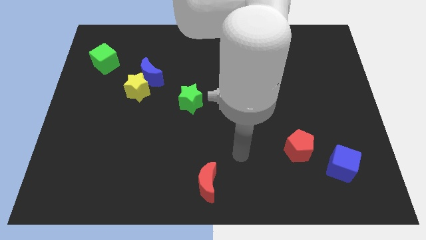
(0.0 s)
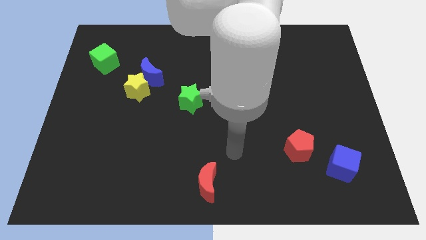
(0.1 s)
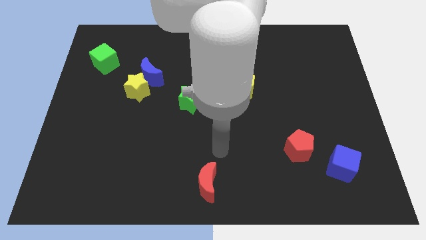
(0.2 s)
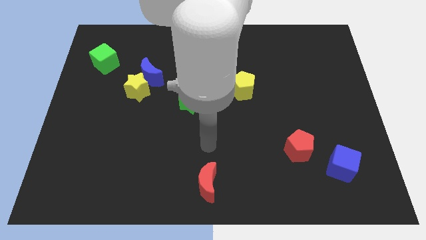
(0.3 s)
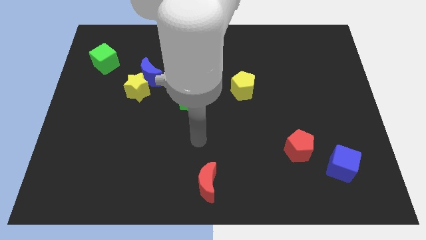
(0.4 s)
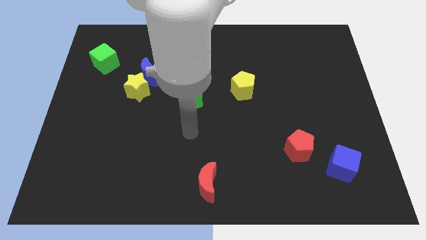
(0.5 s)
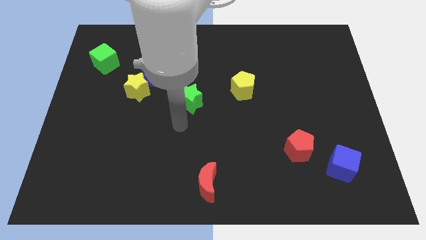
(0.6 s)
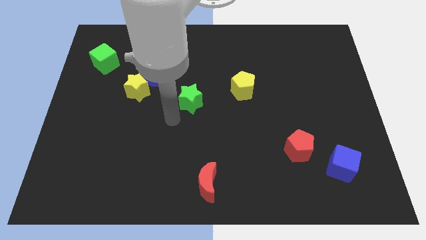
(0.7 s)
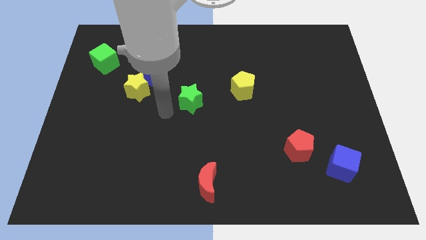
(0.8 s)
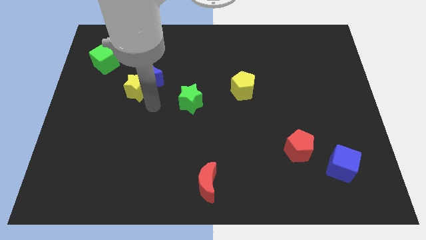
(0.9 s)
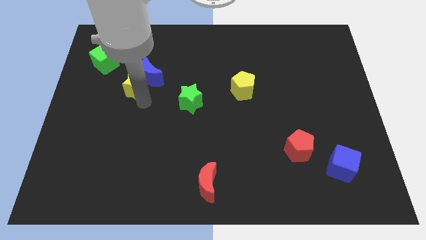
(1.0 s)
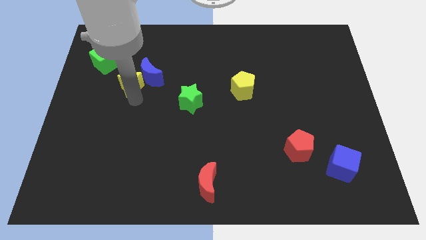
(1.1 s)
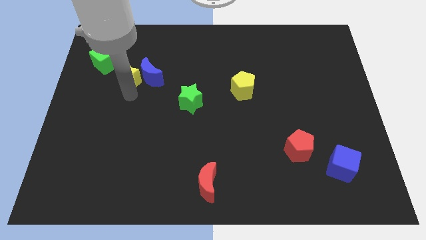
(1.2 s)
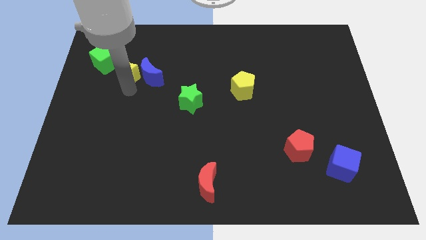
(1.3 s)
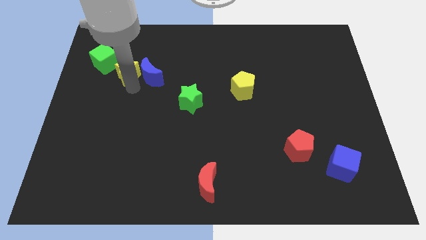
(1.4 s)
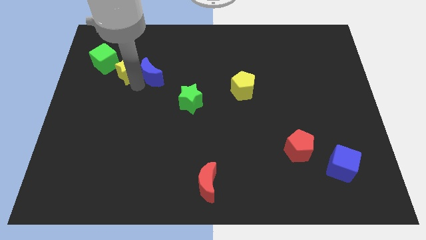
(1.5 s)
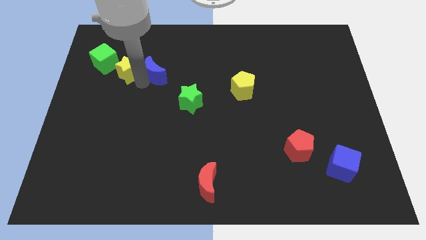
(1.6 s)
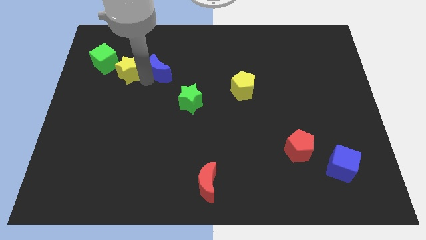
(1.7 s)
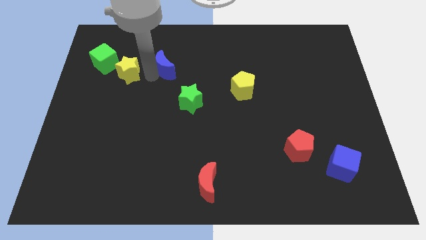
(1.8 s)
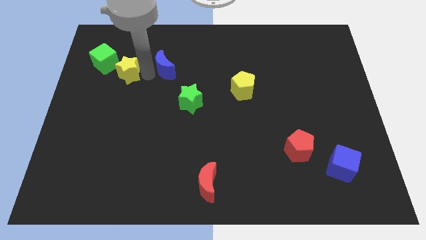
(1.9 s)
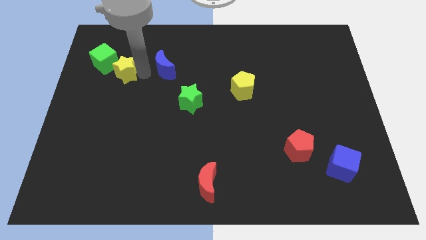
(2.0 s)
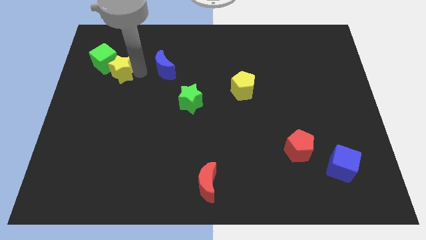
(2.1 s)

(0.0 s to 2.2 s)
separate the blue moon from the yellow star

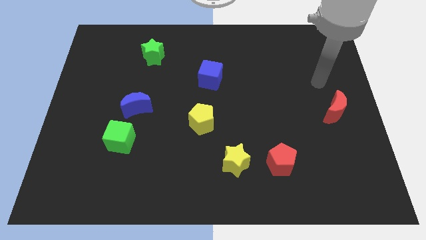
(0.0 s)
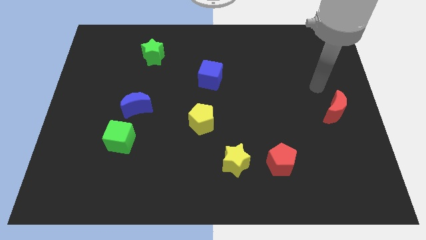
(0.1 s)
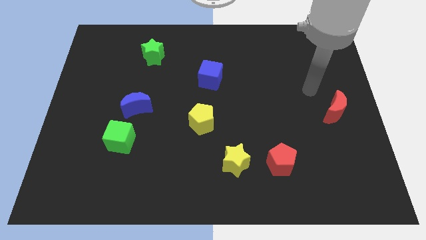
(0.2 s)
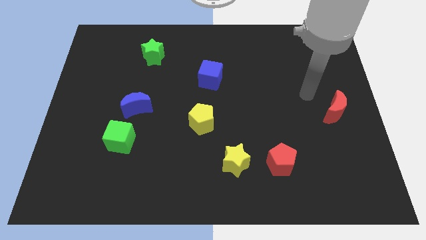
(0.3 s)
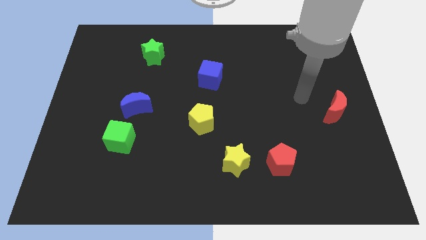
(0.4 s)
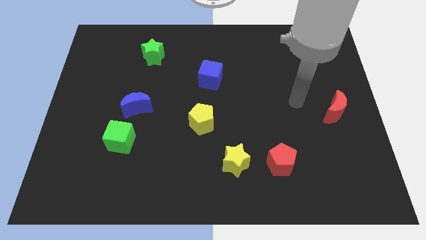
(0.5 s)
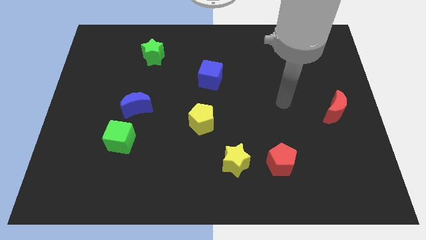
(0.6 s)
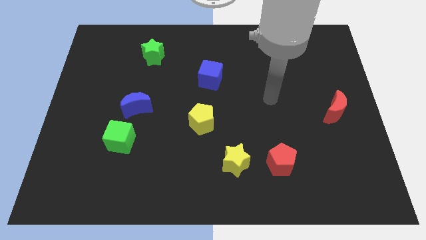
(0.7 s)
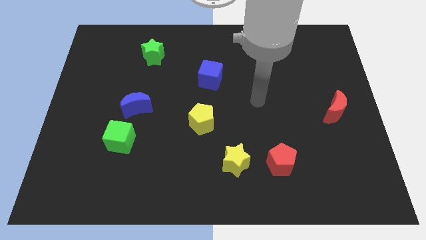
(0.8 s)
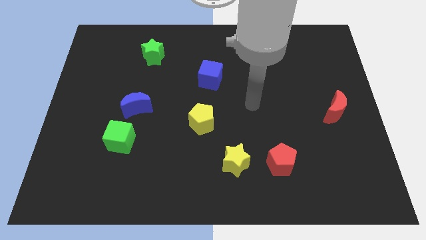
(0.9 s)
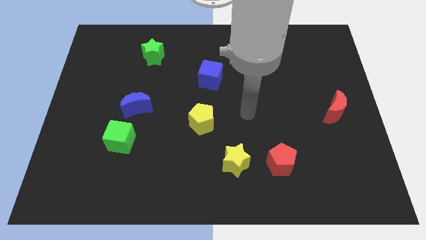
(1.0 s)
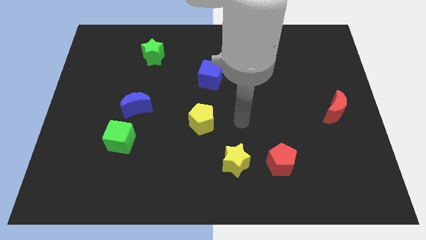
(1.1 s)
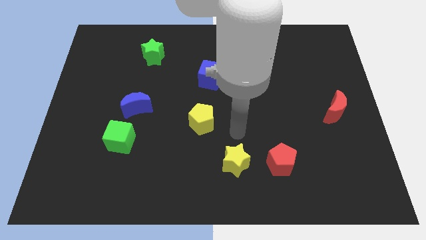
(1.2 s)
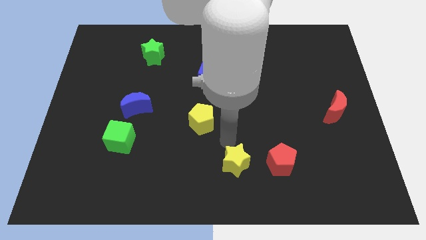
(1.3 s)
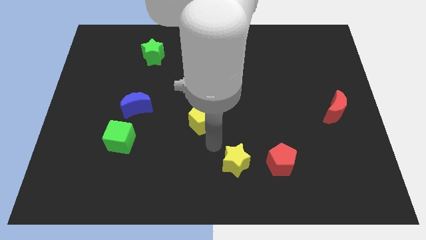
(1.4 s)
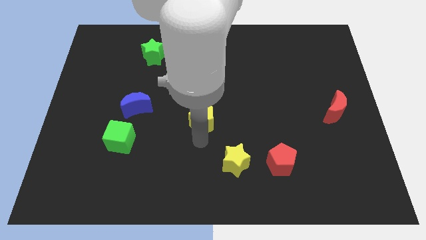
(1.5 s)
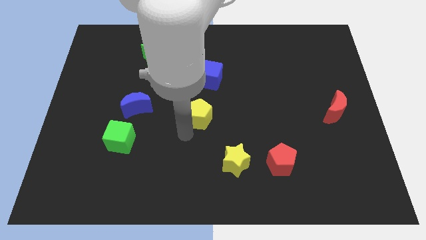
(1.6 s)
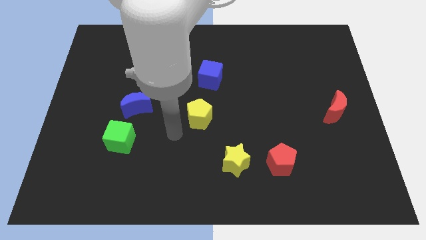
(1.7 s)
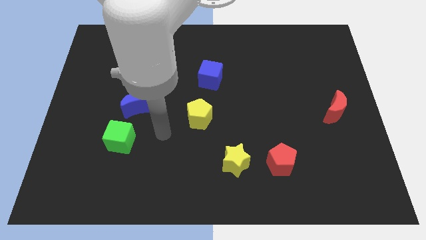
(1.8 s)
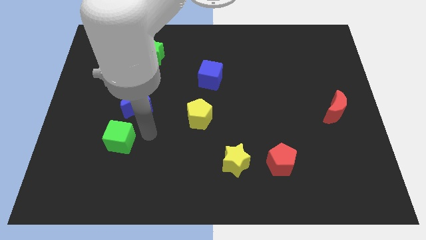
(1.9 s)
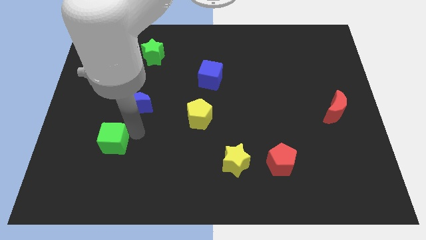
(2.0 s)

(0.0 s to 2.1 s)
separate the blue moon from the green cube

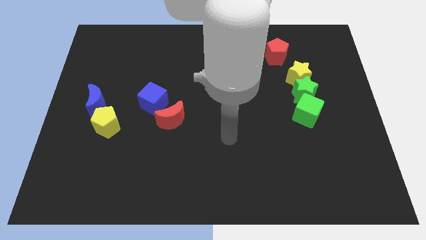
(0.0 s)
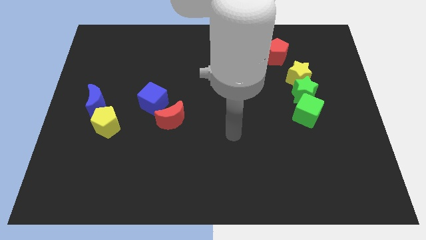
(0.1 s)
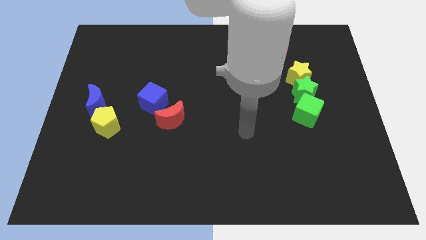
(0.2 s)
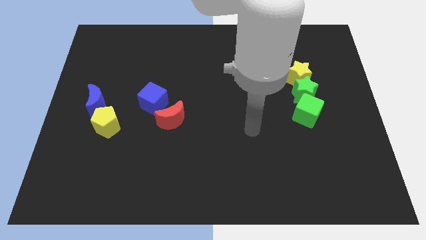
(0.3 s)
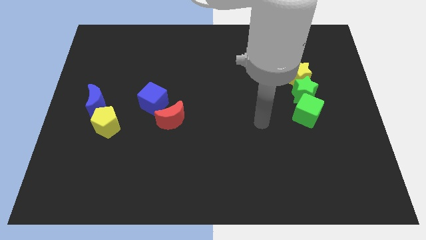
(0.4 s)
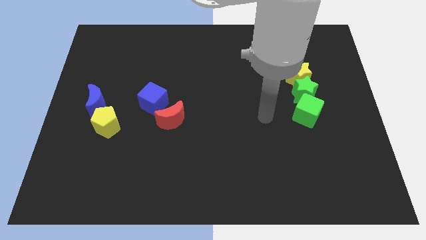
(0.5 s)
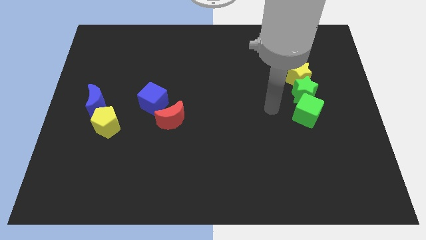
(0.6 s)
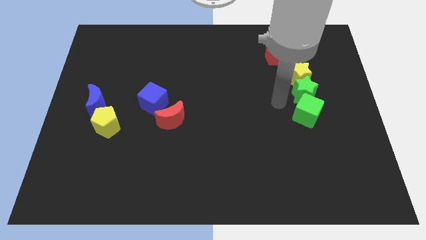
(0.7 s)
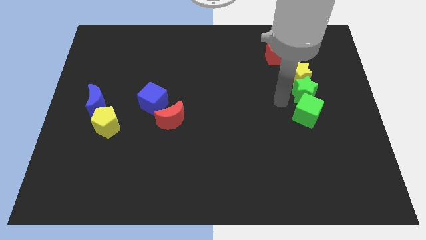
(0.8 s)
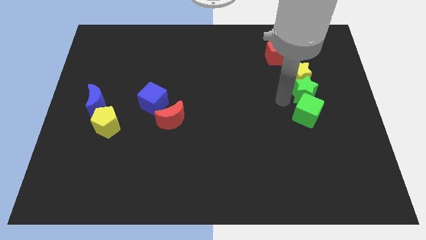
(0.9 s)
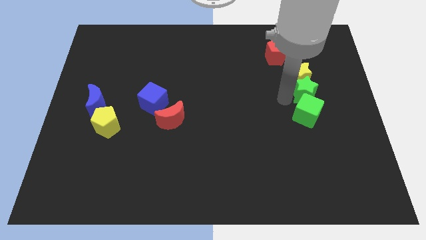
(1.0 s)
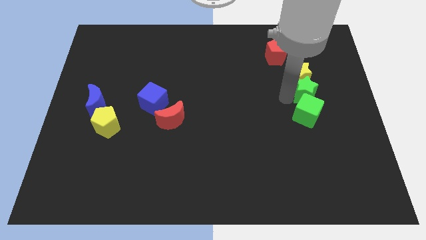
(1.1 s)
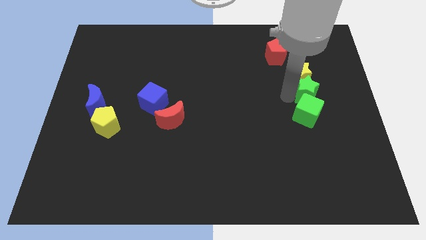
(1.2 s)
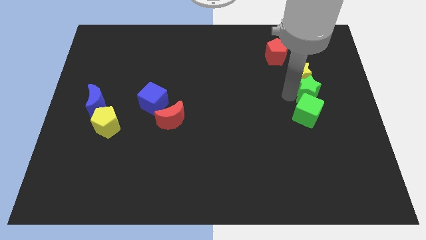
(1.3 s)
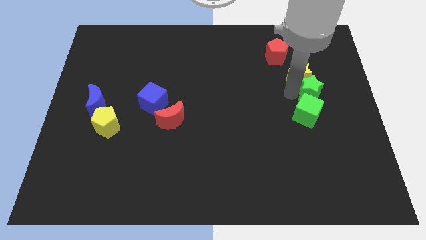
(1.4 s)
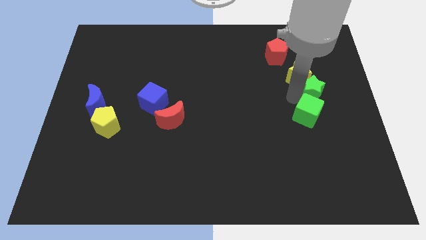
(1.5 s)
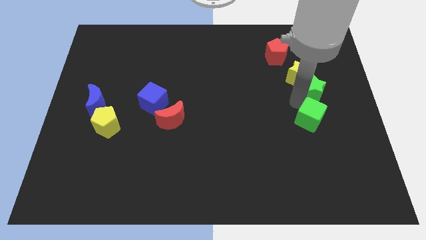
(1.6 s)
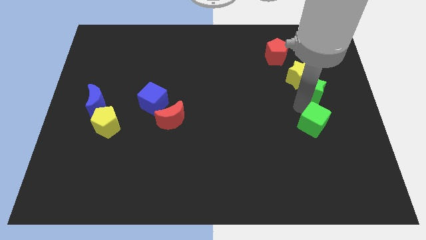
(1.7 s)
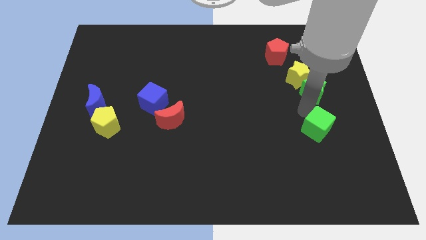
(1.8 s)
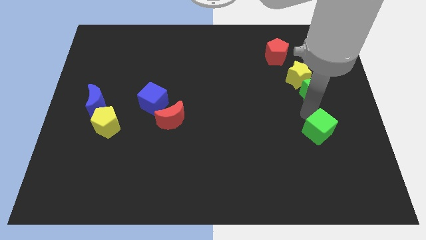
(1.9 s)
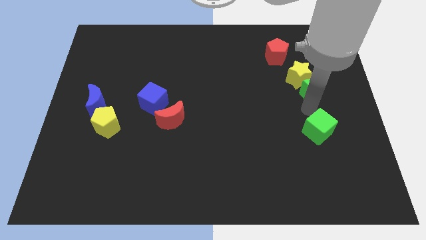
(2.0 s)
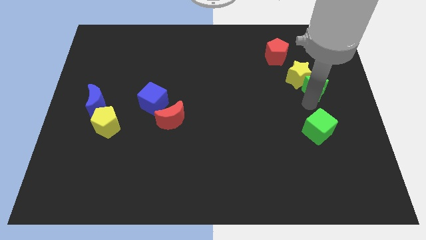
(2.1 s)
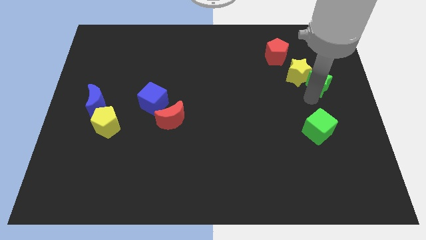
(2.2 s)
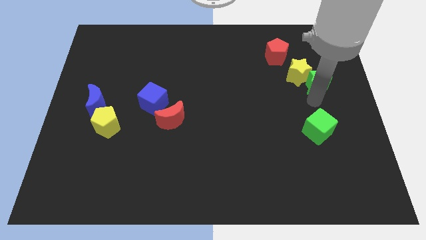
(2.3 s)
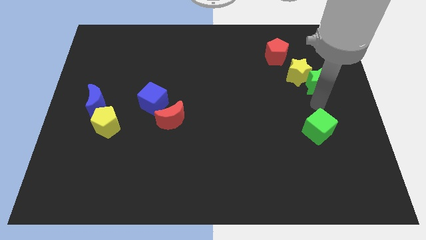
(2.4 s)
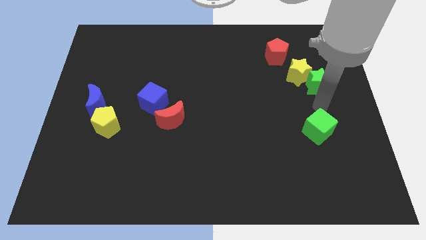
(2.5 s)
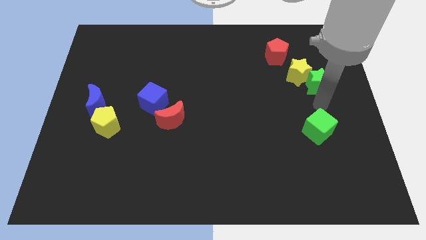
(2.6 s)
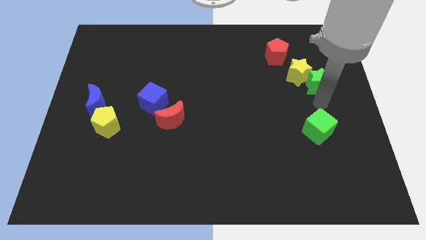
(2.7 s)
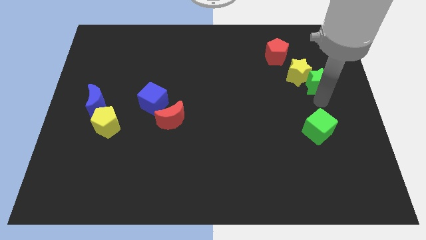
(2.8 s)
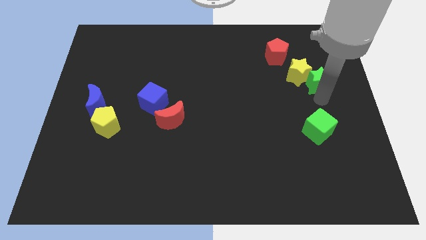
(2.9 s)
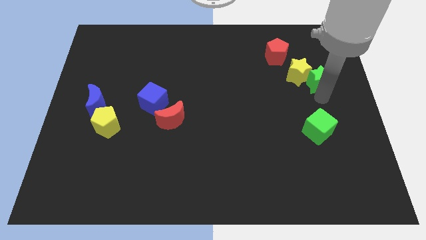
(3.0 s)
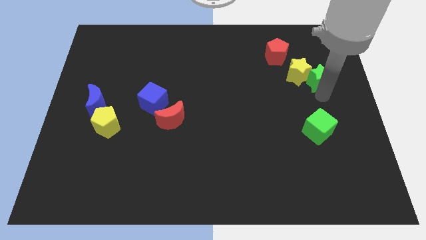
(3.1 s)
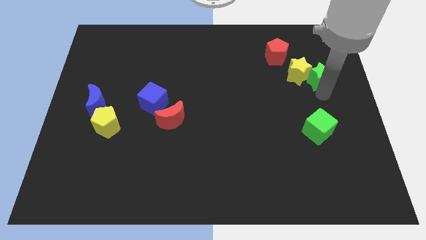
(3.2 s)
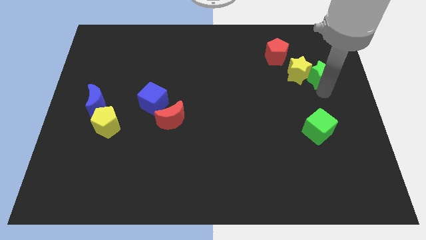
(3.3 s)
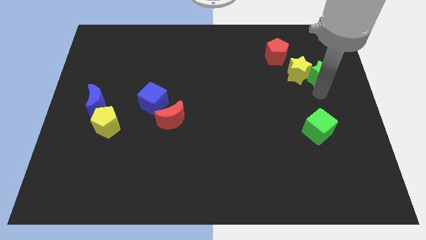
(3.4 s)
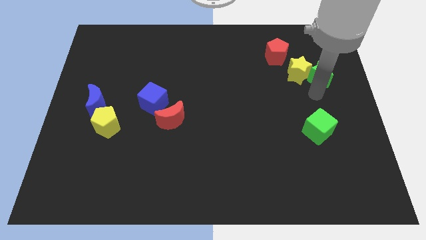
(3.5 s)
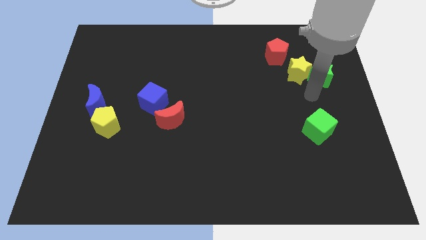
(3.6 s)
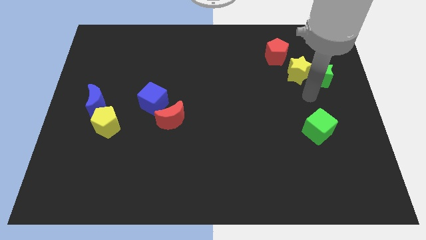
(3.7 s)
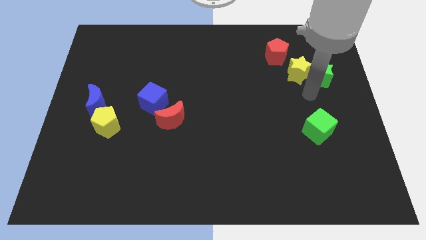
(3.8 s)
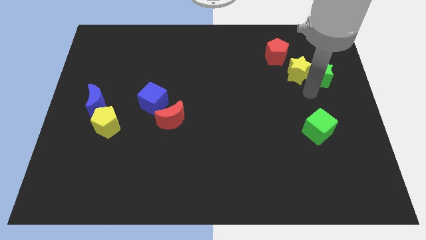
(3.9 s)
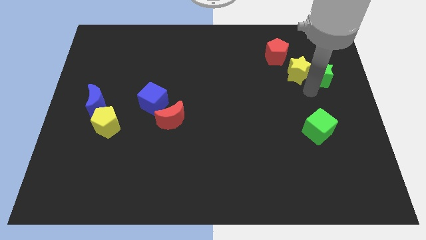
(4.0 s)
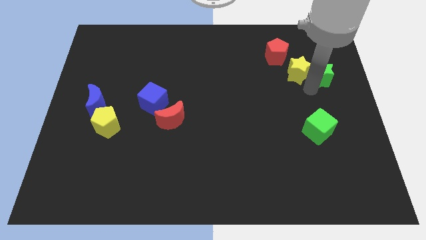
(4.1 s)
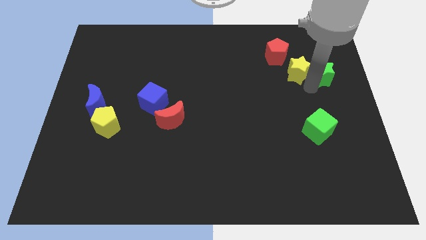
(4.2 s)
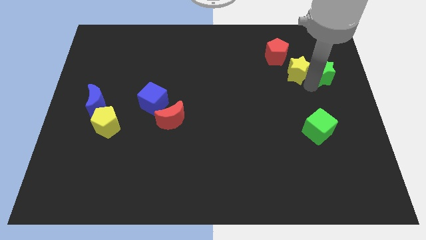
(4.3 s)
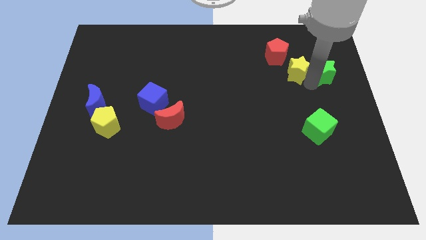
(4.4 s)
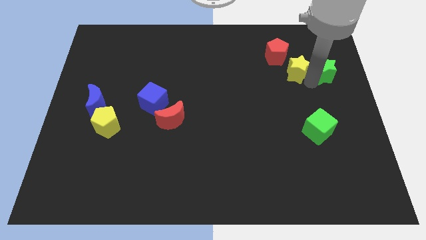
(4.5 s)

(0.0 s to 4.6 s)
move the green star away from the yellow star and green cube

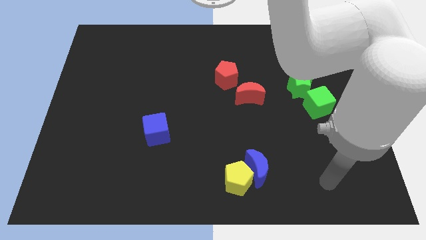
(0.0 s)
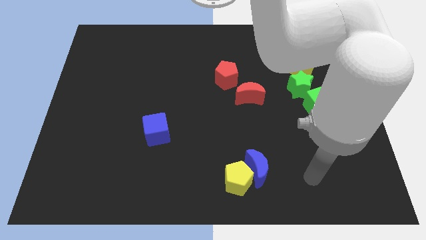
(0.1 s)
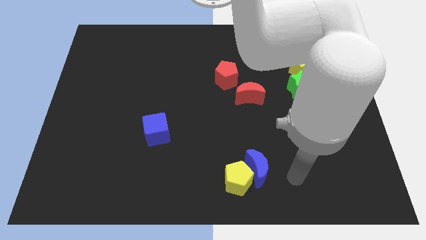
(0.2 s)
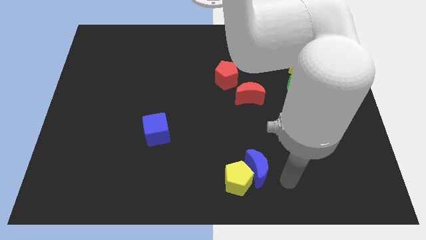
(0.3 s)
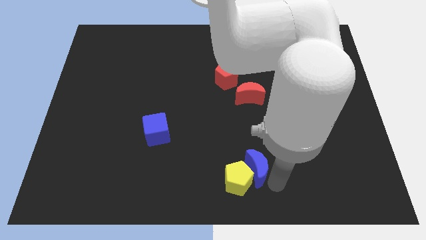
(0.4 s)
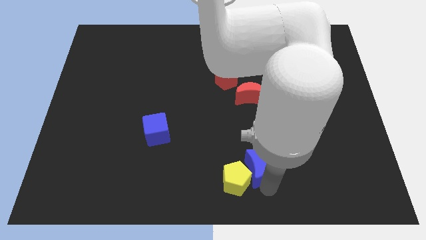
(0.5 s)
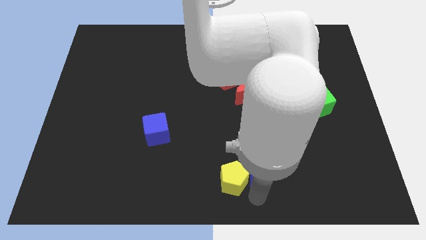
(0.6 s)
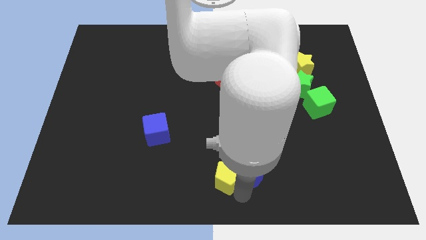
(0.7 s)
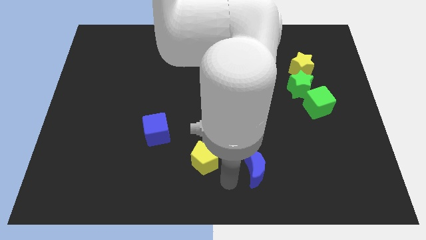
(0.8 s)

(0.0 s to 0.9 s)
separate the blue moon from the yellow pentagon
